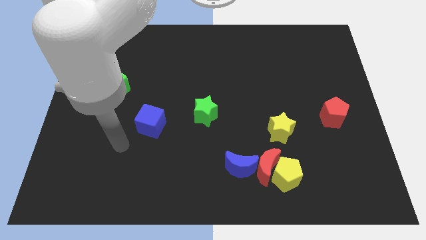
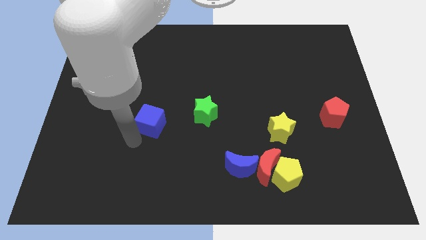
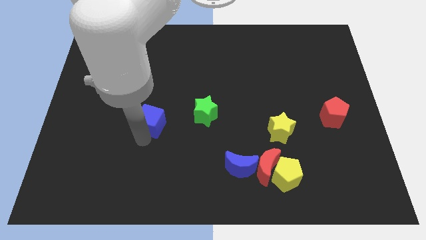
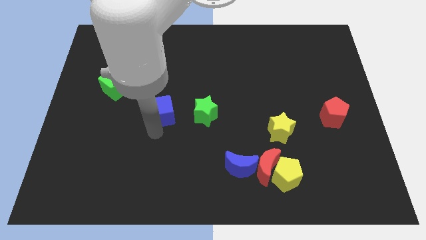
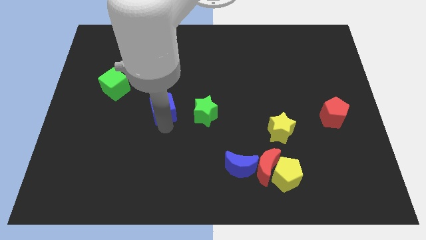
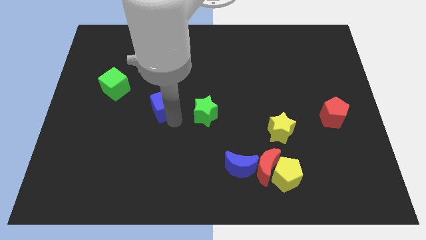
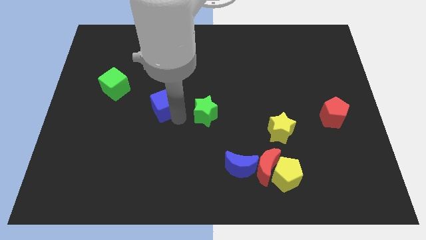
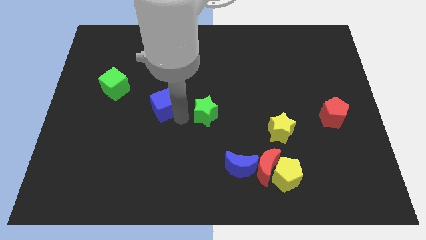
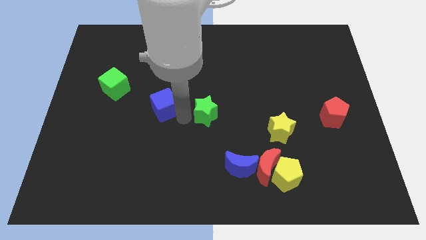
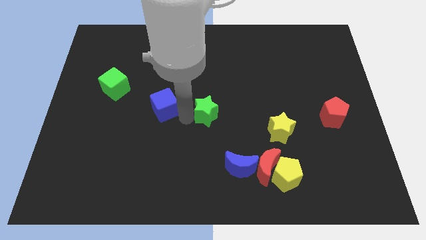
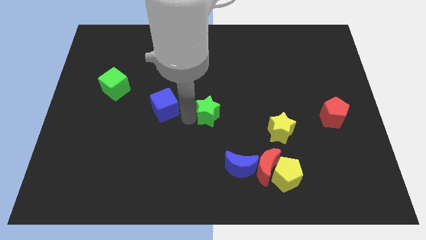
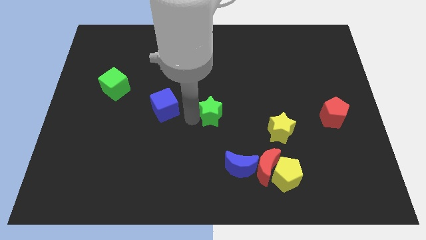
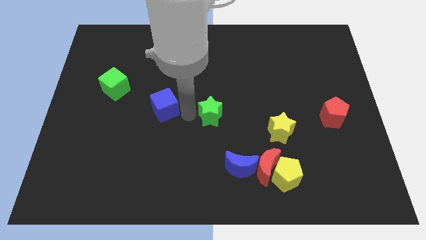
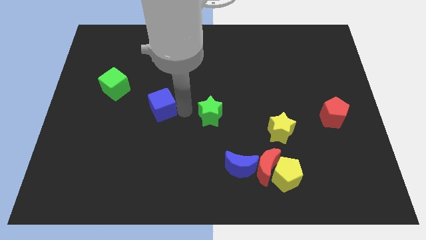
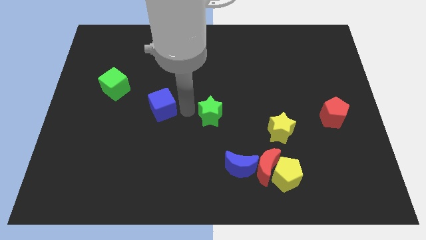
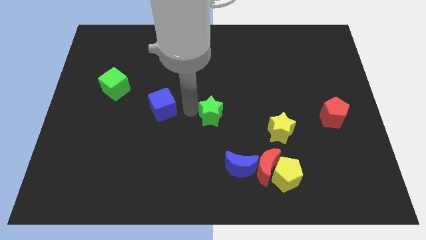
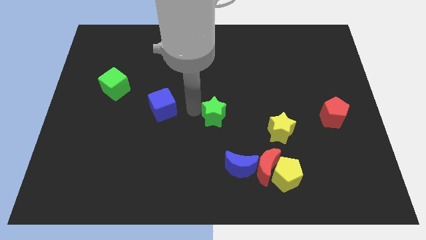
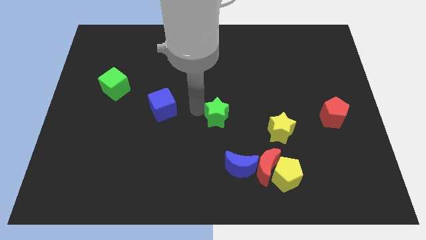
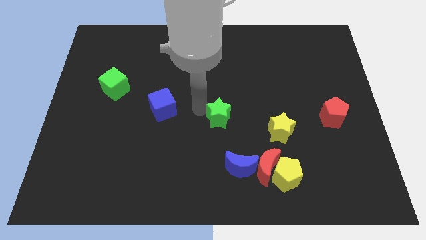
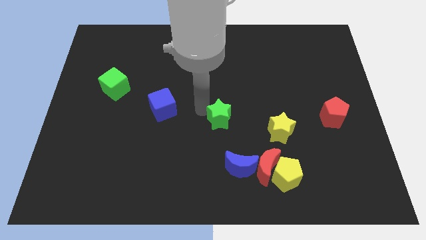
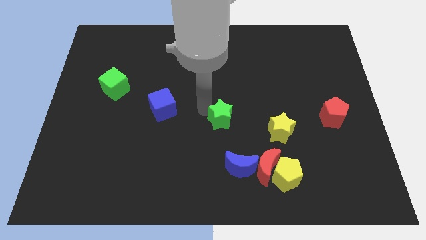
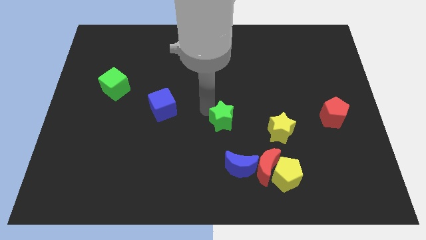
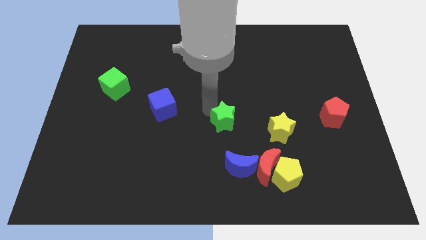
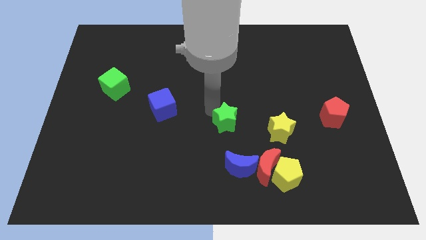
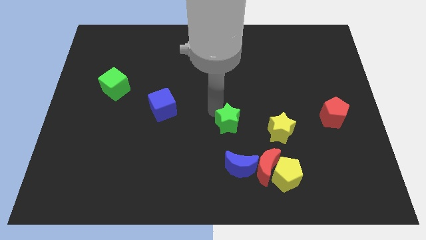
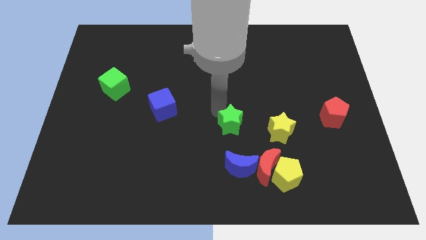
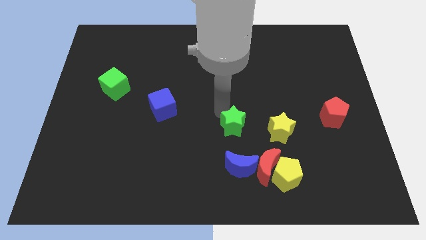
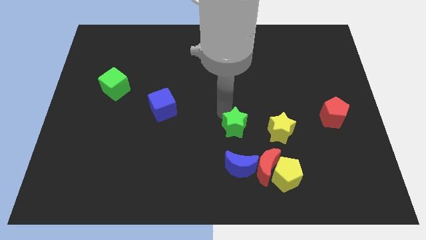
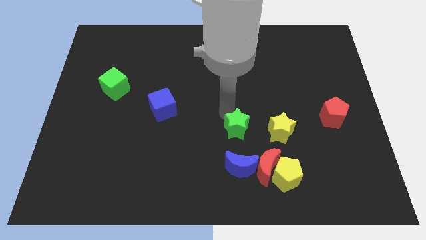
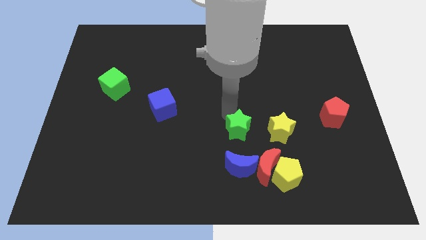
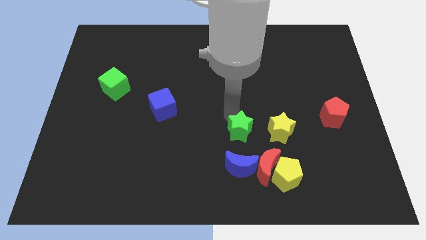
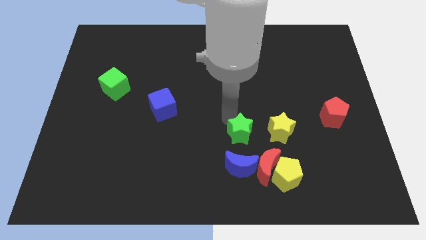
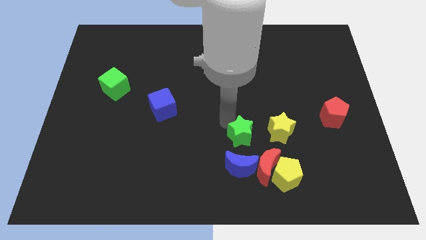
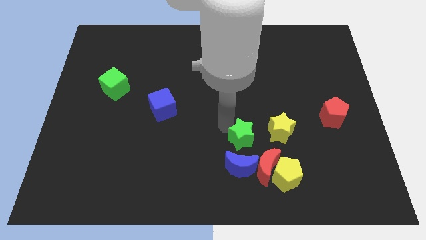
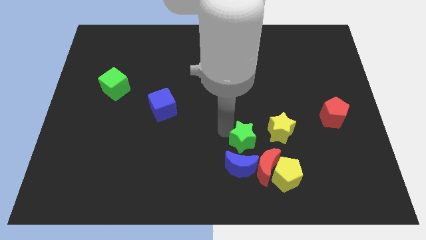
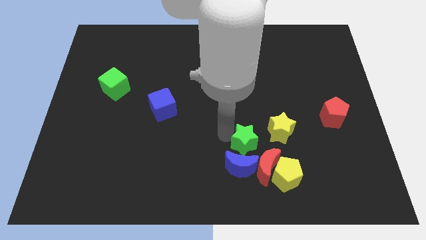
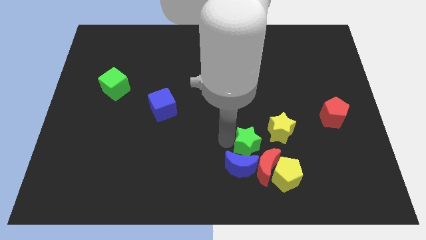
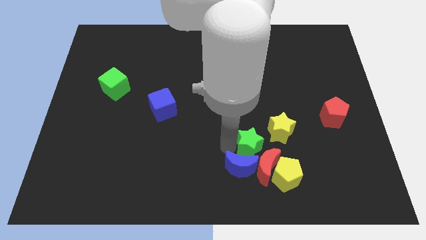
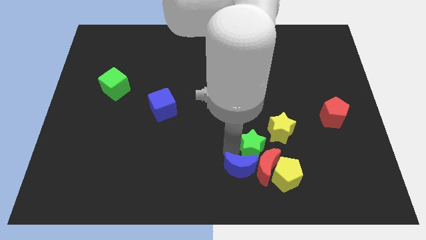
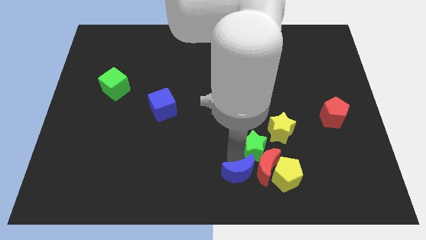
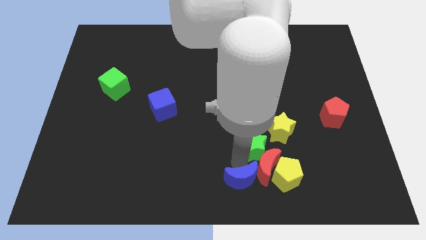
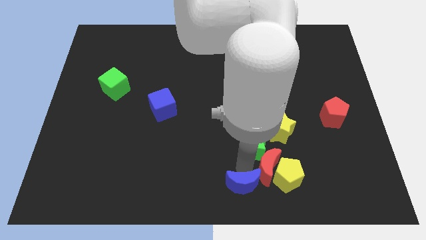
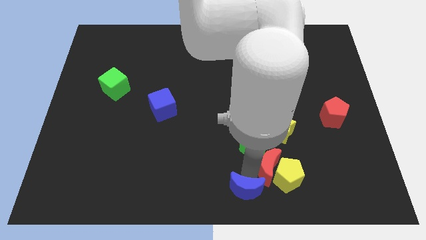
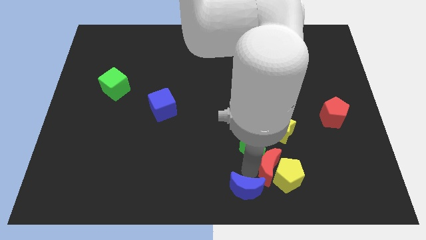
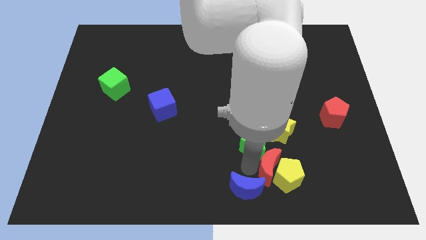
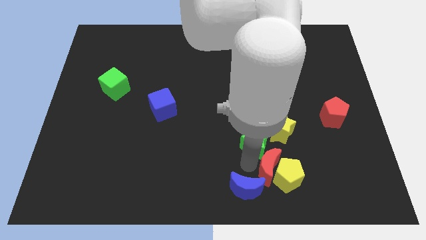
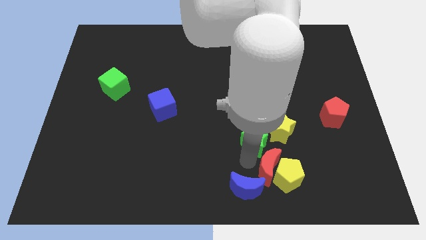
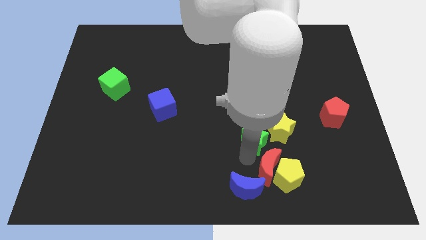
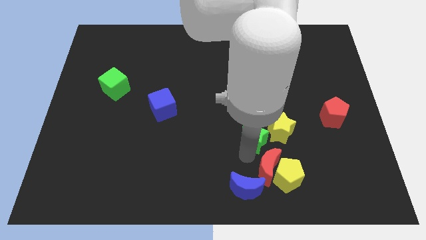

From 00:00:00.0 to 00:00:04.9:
slide the green star to the yellow star

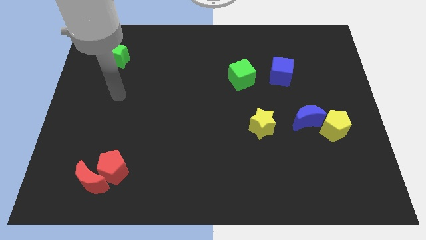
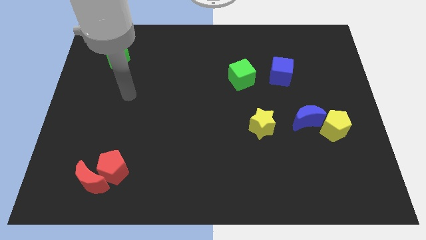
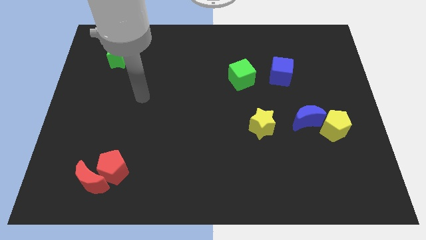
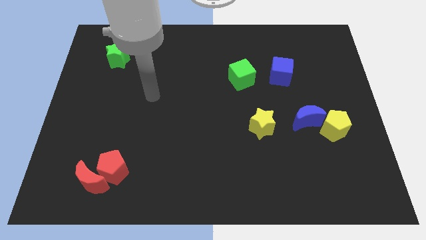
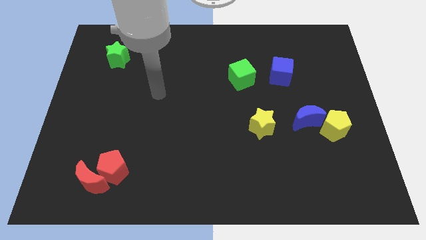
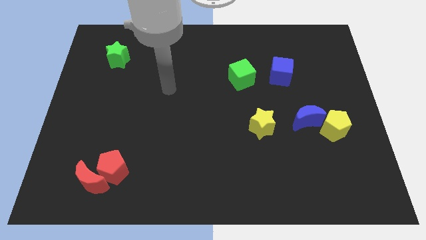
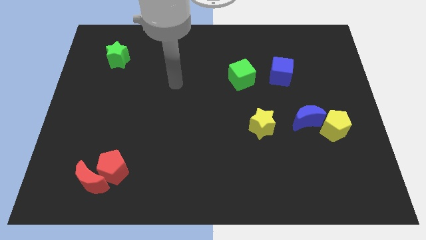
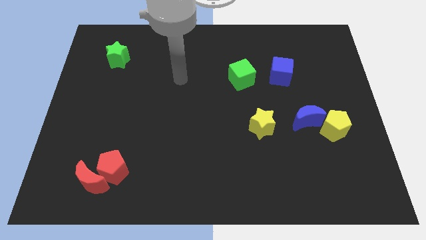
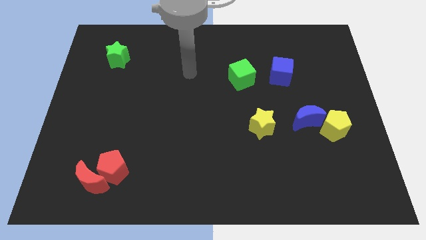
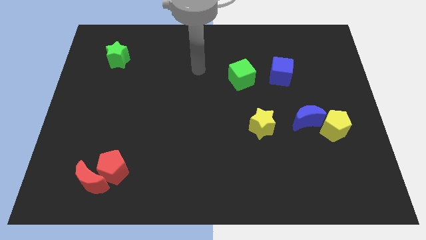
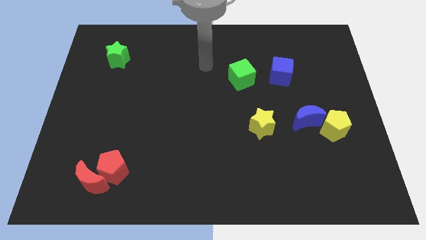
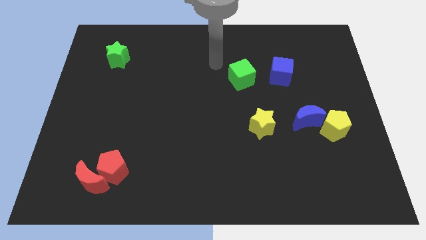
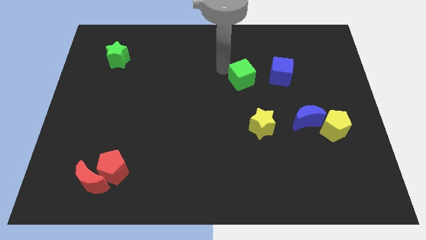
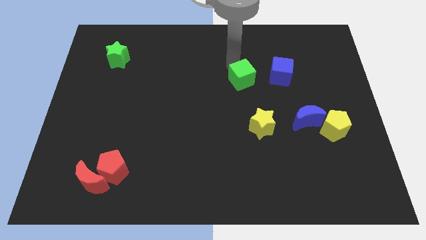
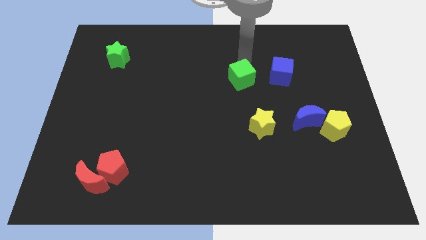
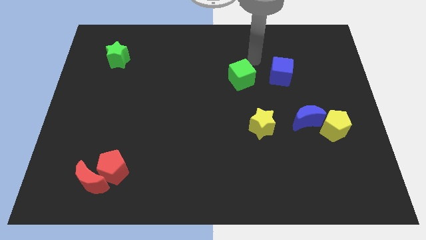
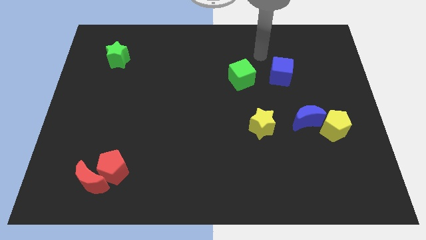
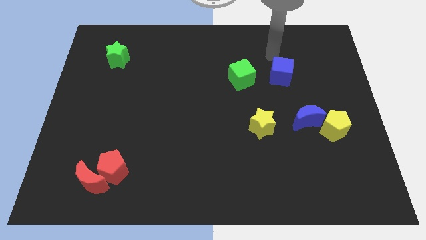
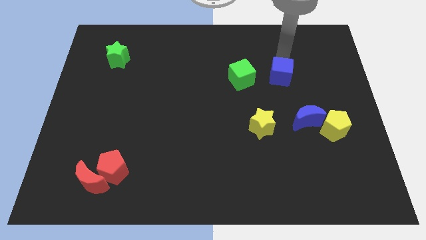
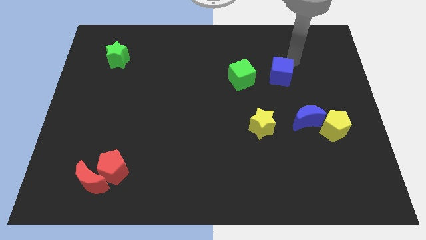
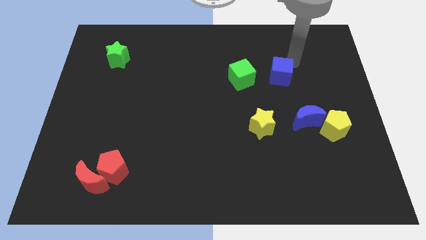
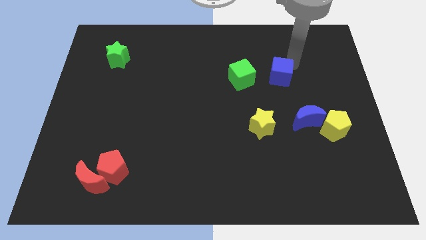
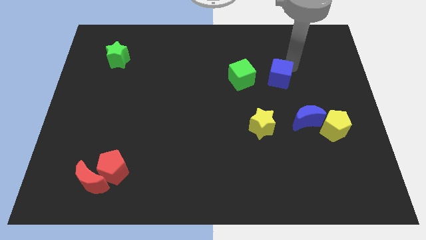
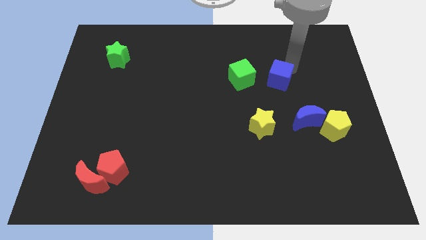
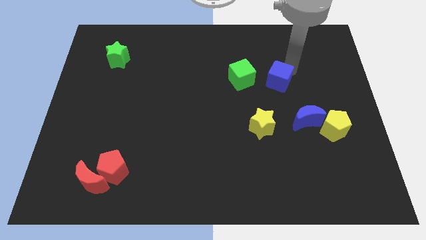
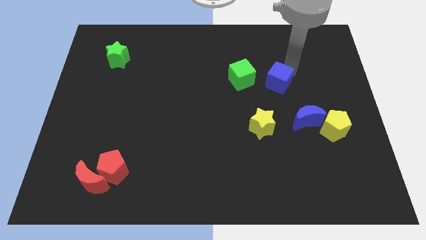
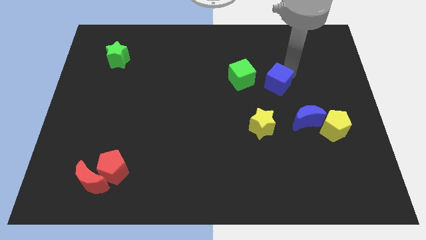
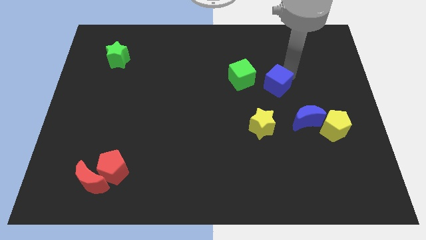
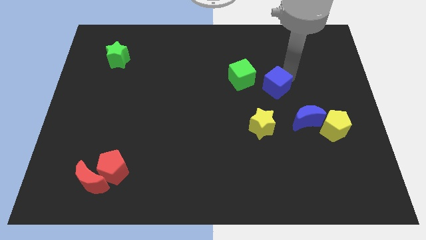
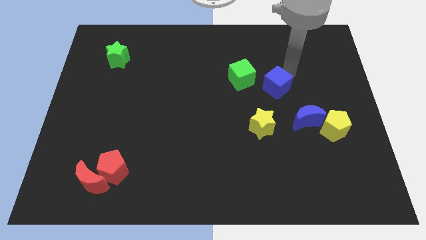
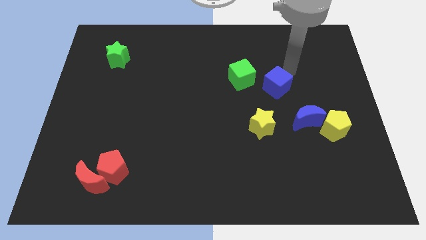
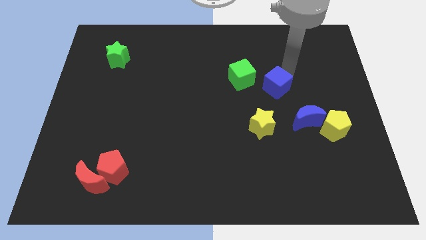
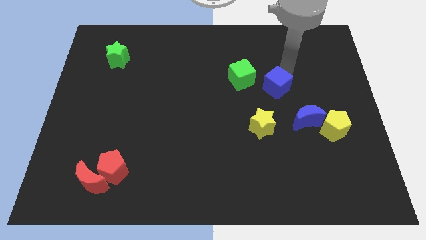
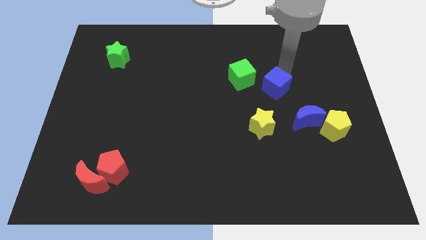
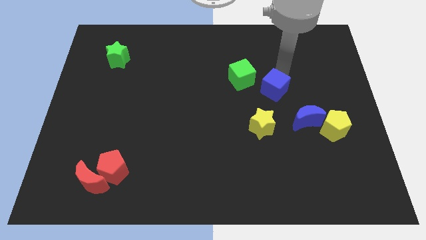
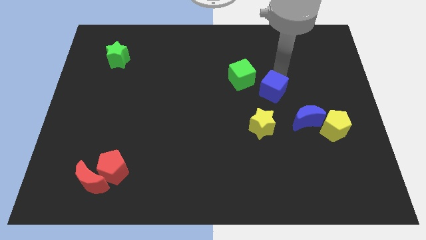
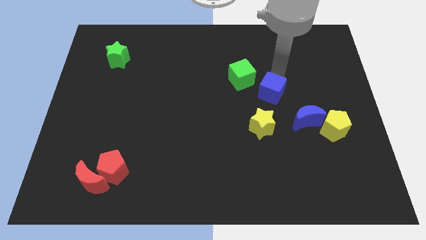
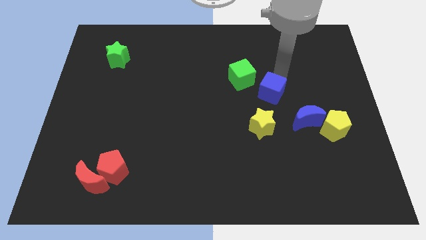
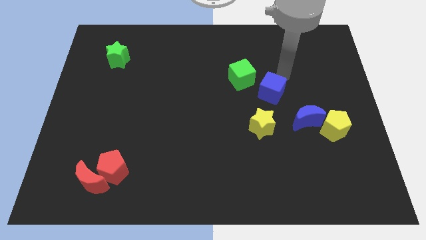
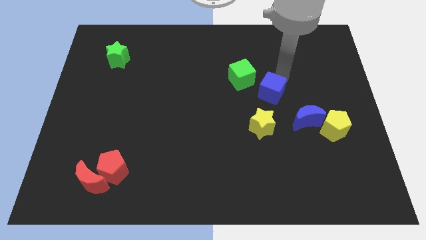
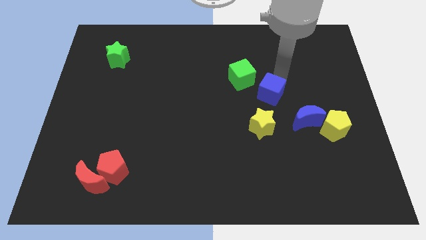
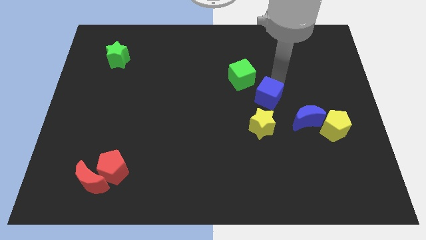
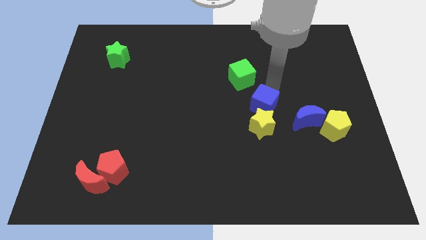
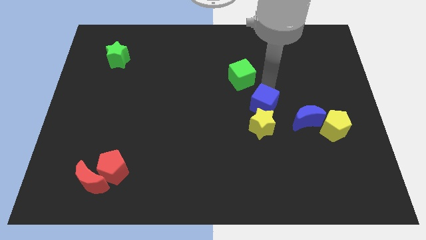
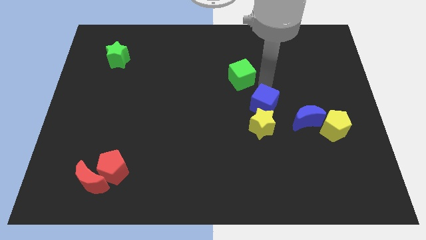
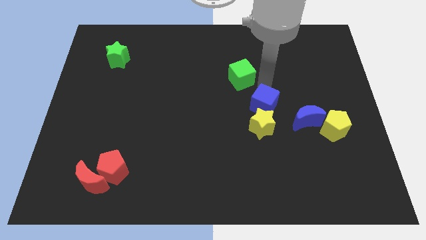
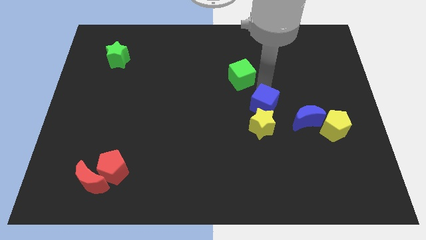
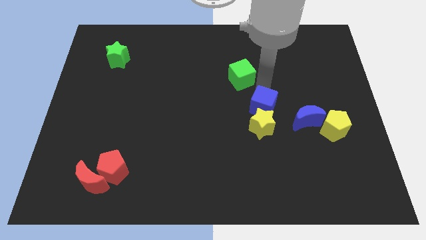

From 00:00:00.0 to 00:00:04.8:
push the blue cube to the yellow star
